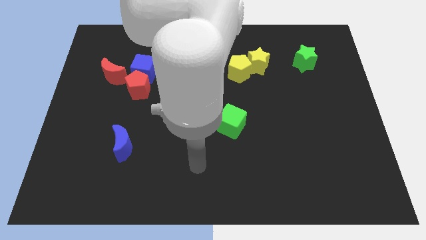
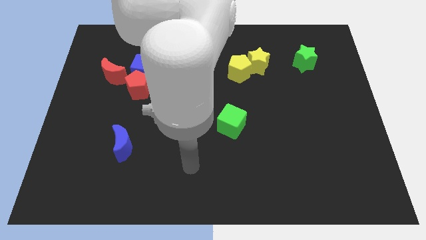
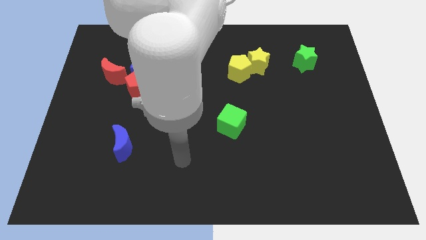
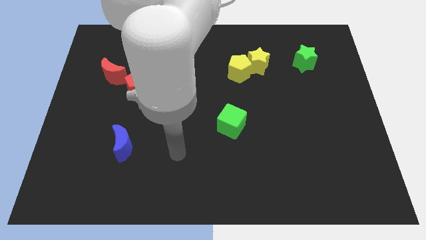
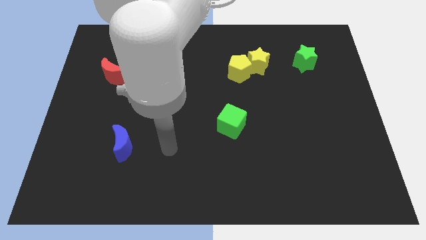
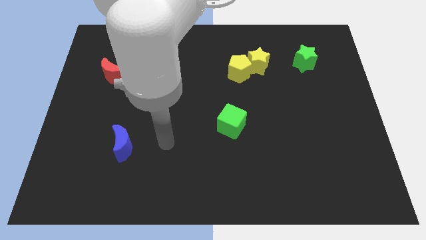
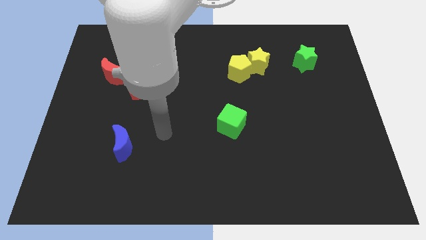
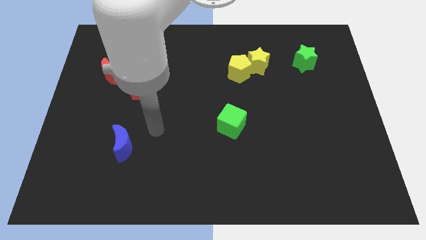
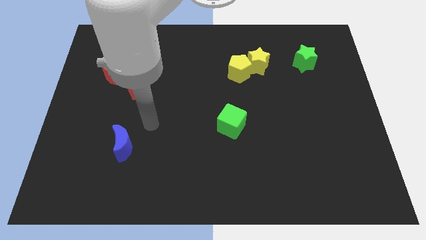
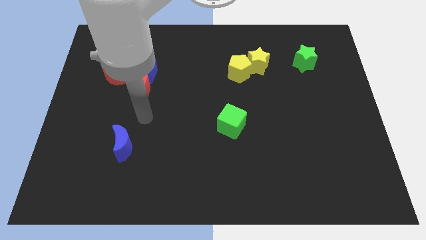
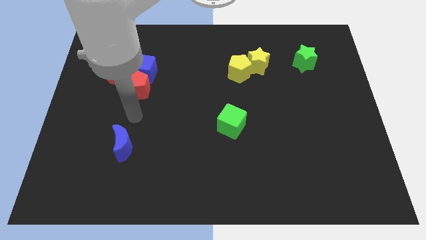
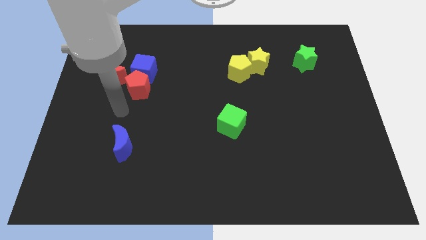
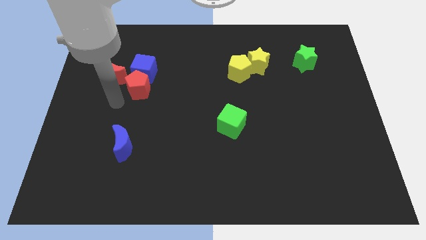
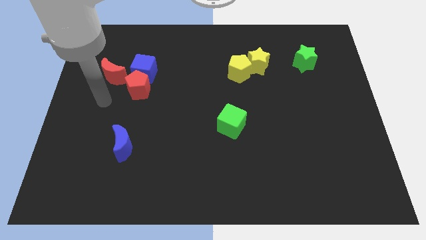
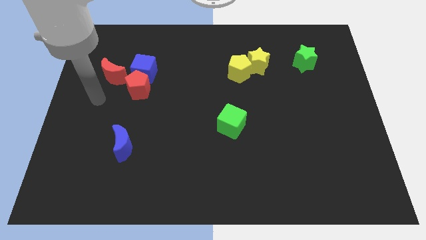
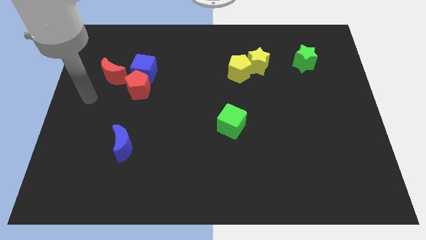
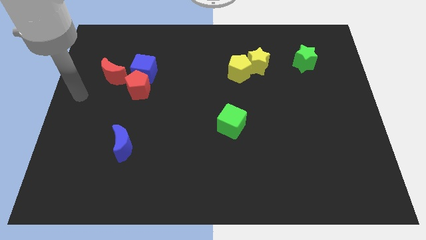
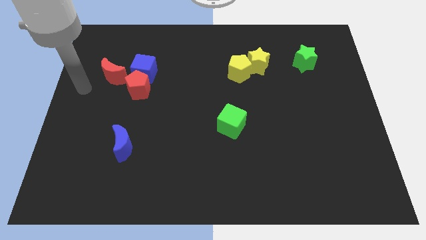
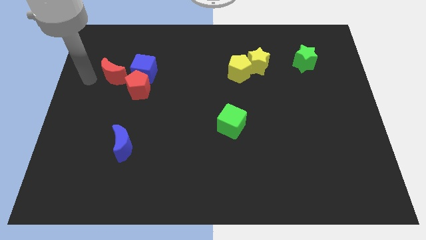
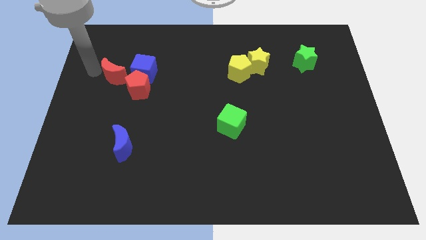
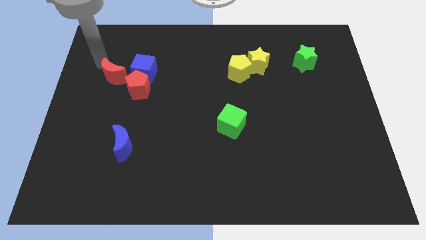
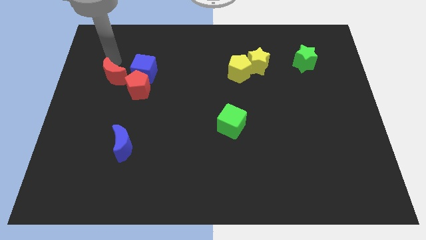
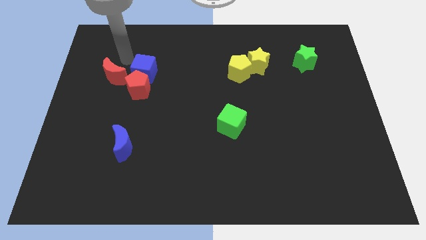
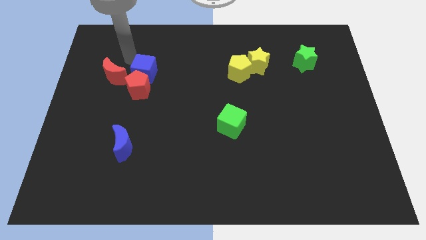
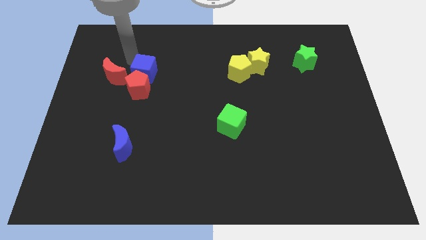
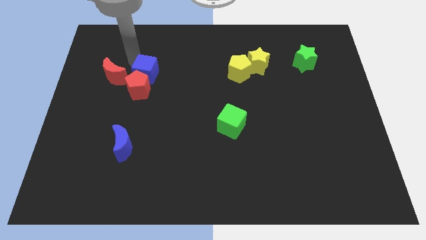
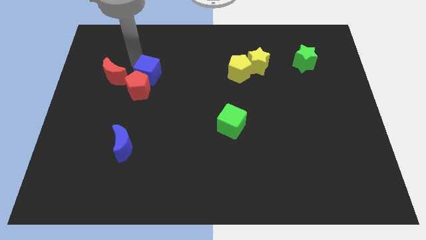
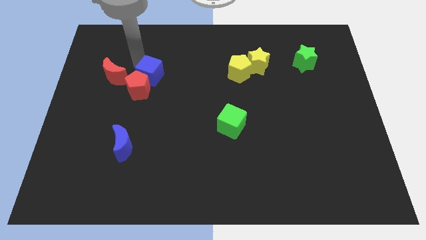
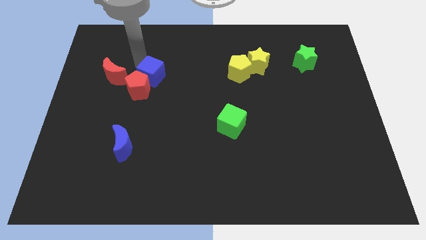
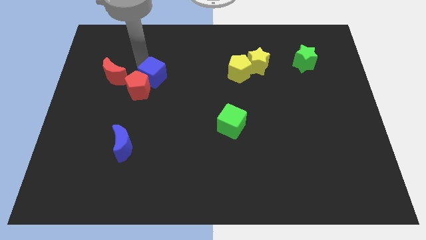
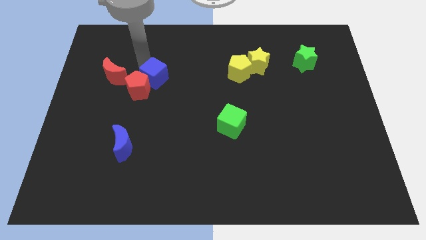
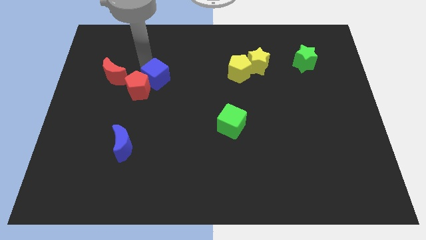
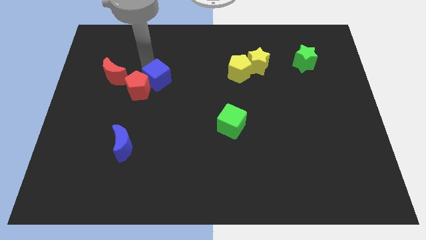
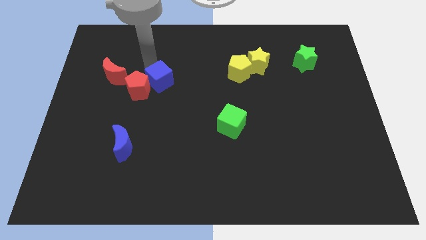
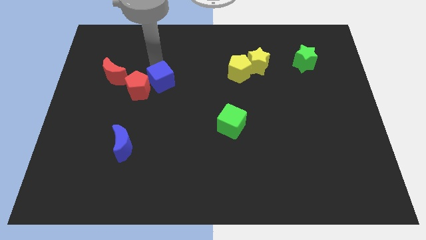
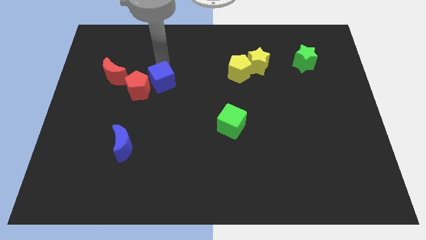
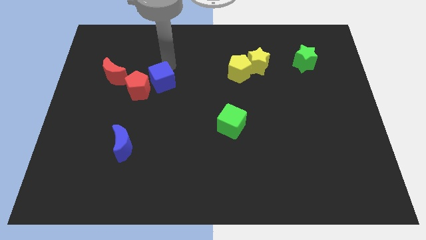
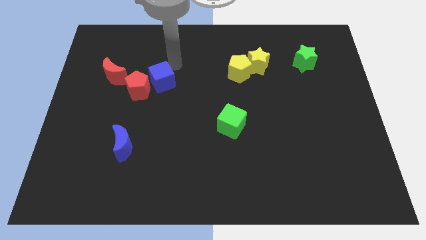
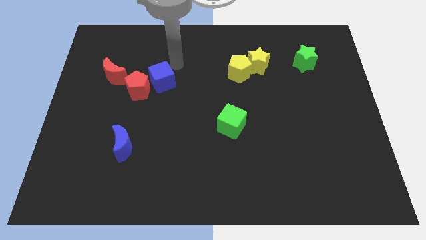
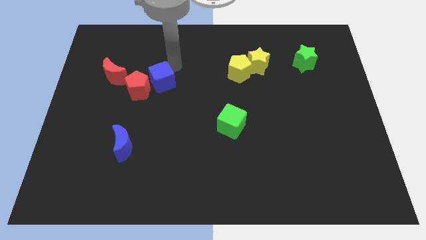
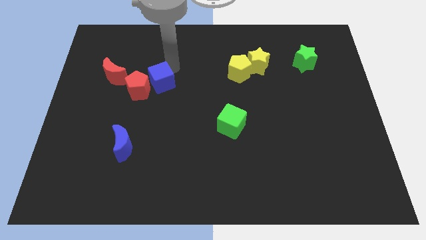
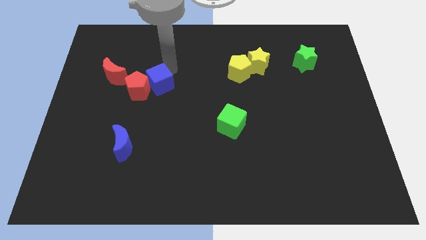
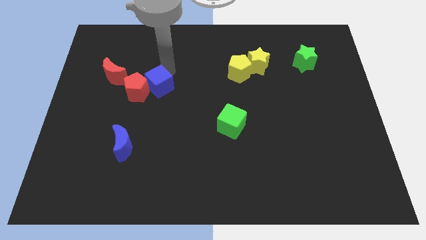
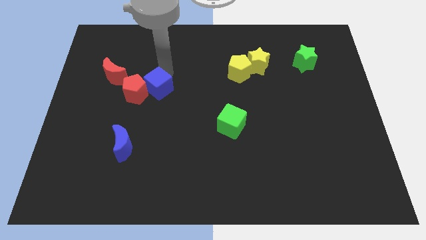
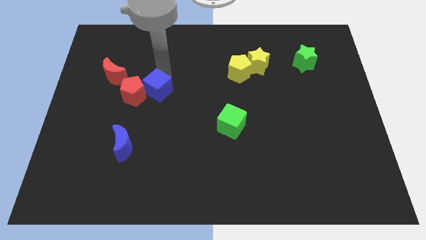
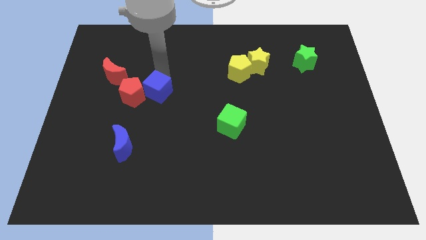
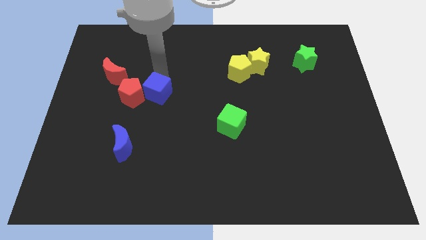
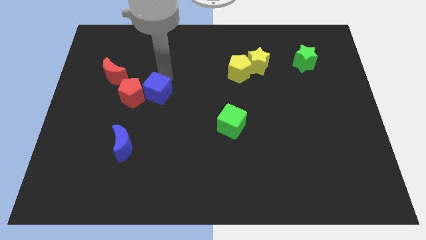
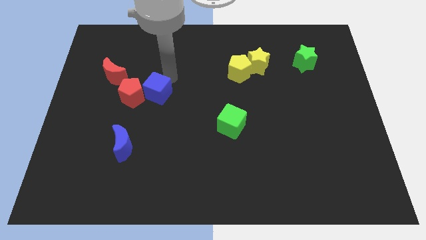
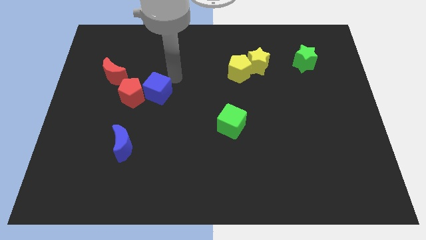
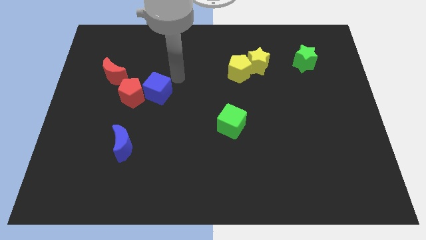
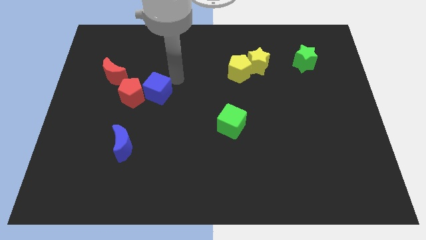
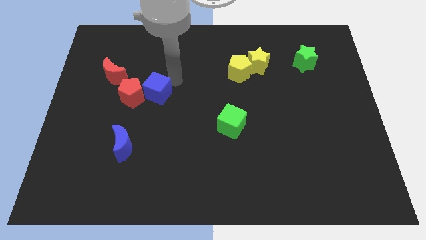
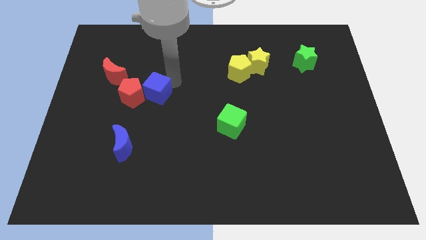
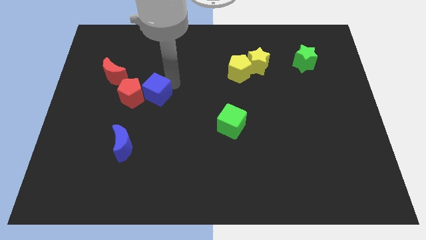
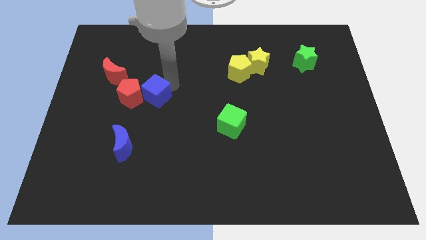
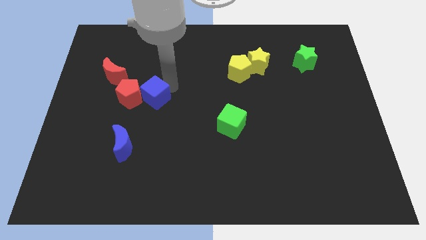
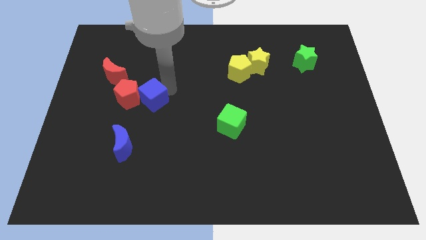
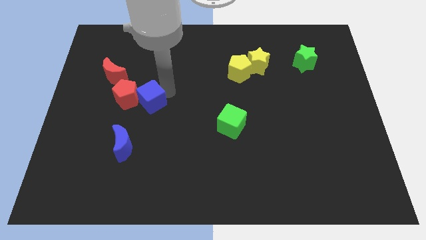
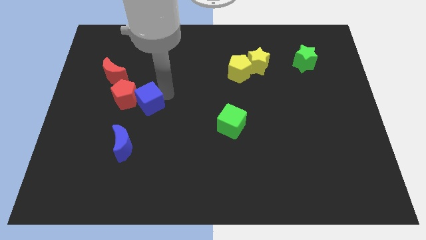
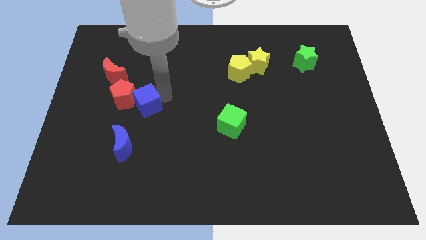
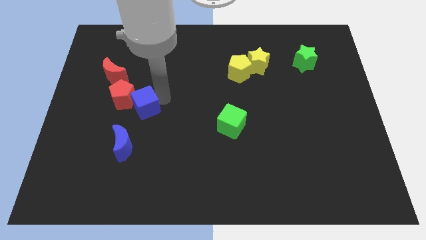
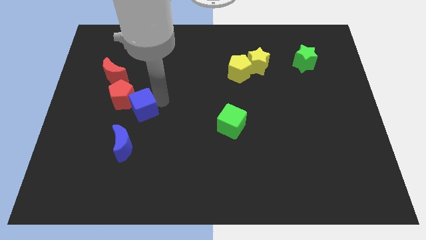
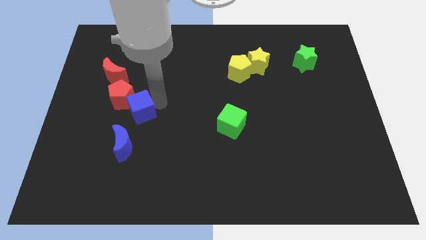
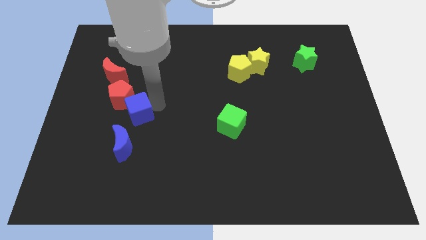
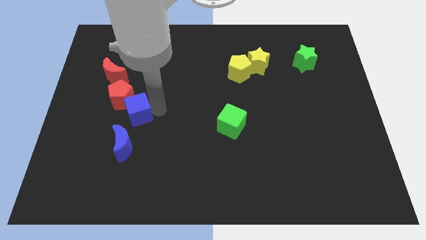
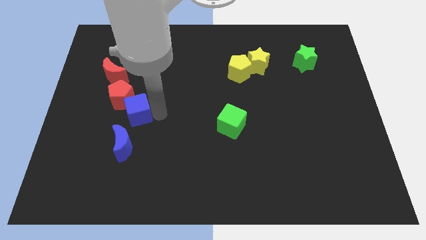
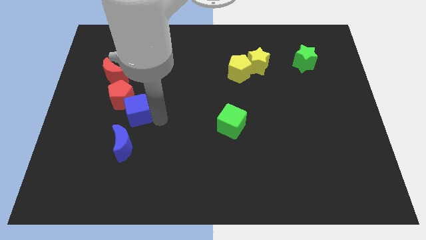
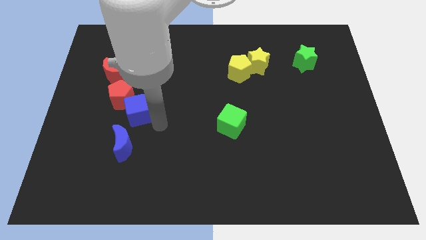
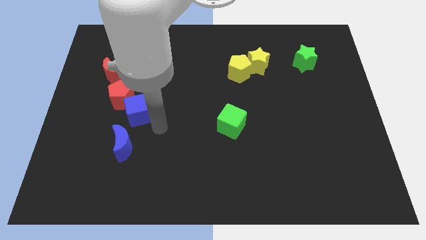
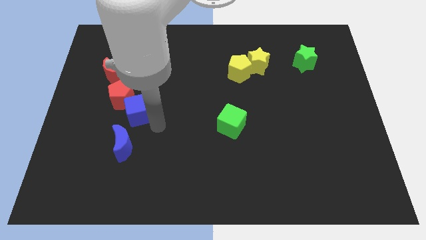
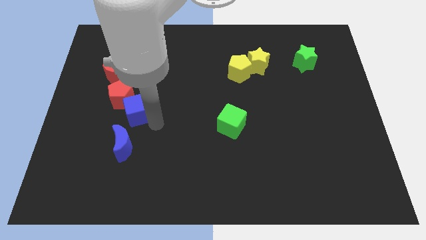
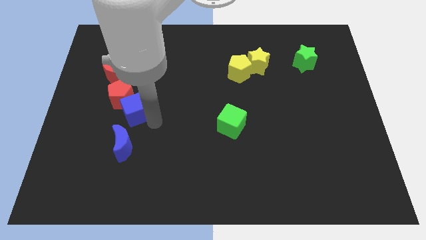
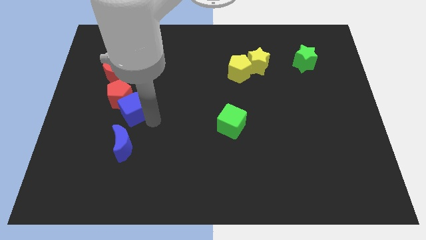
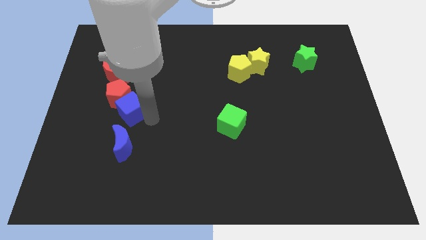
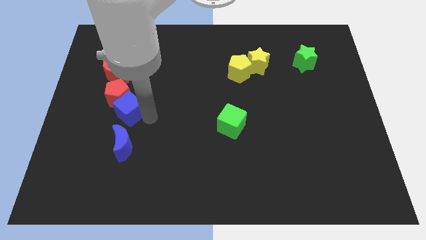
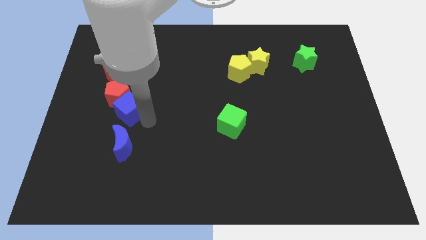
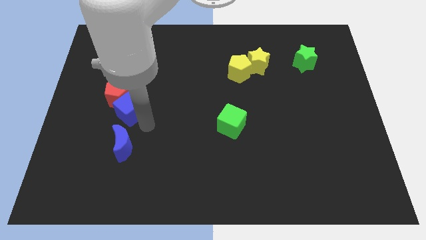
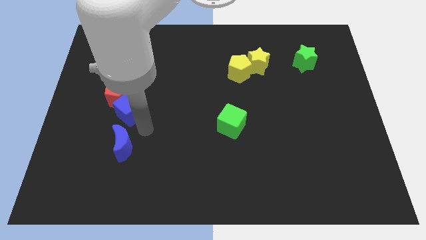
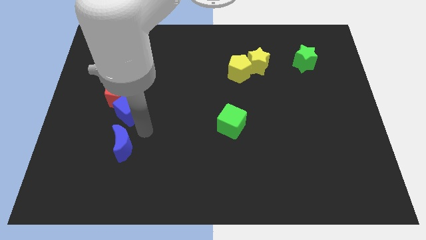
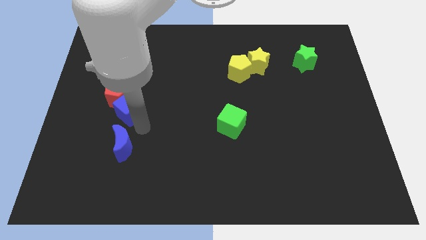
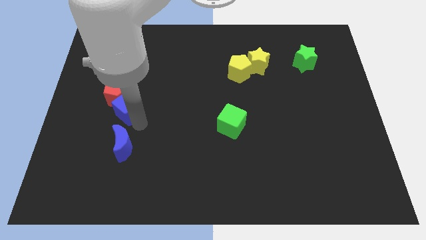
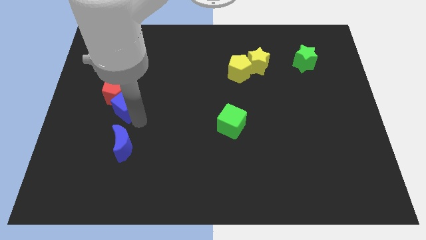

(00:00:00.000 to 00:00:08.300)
push the blue cube to the bottom side of the red moon
